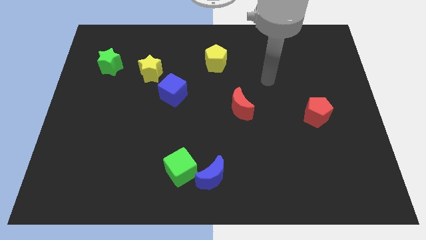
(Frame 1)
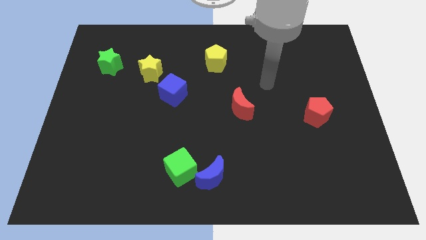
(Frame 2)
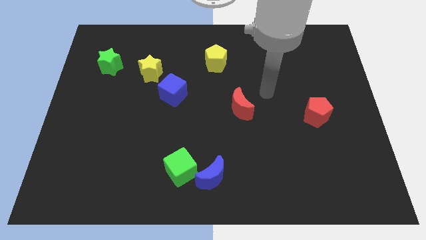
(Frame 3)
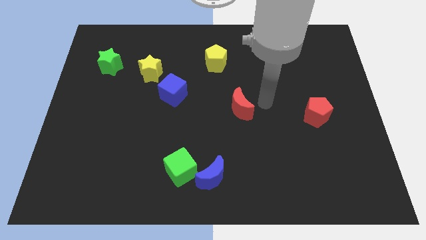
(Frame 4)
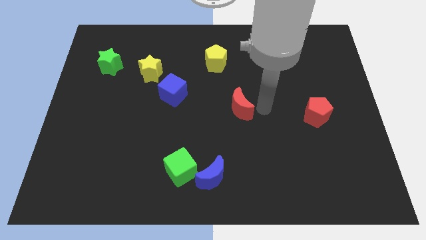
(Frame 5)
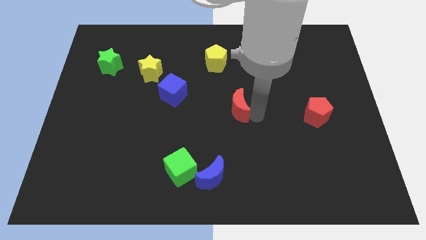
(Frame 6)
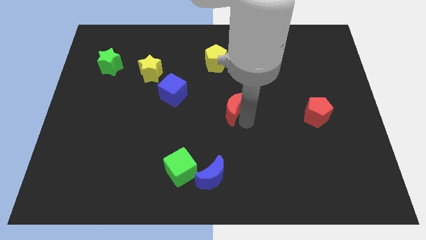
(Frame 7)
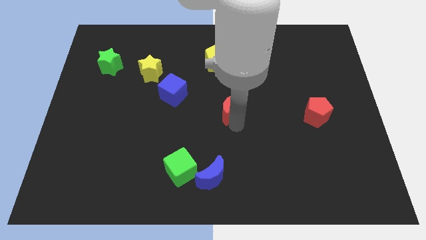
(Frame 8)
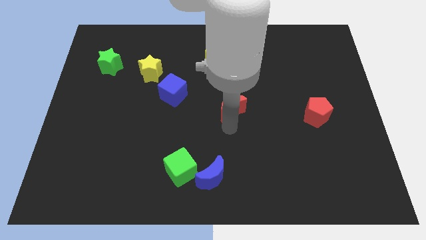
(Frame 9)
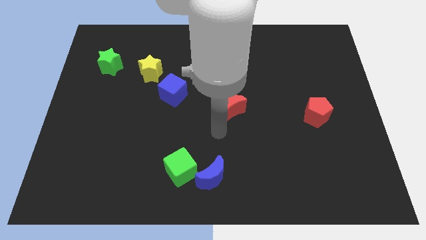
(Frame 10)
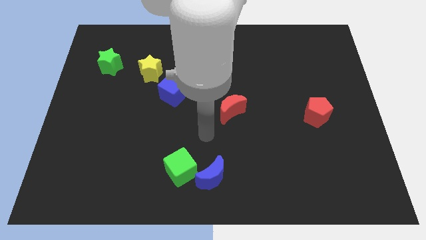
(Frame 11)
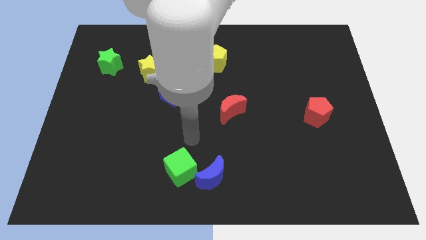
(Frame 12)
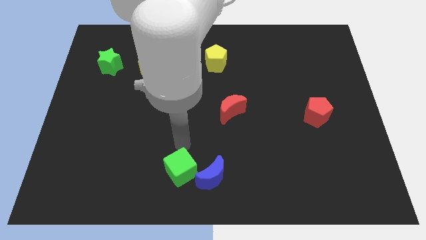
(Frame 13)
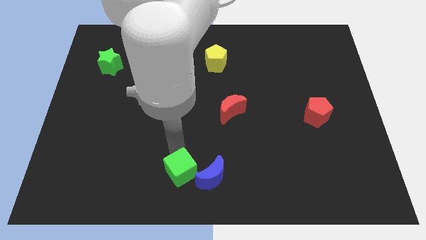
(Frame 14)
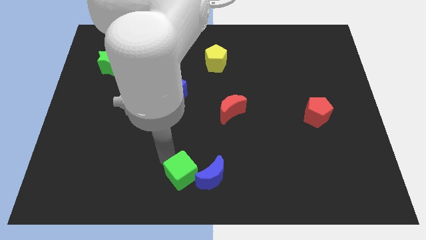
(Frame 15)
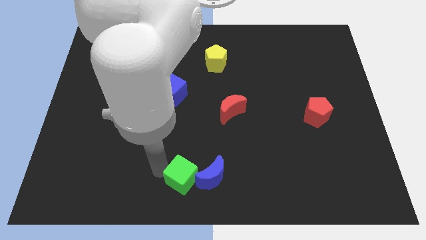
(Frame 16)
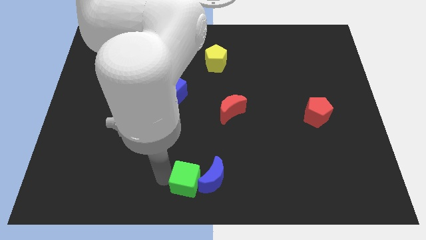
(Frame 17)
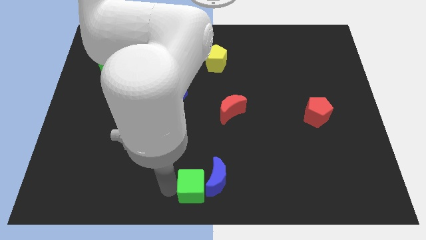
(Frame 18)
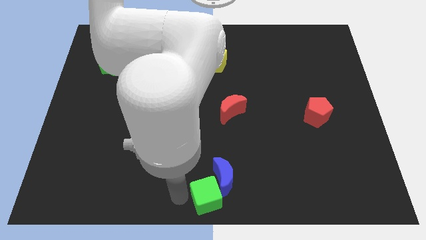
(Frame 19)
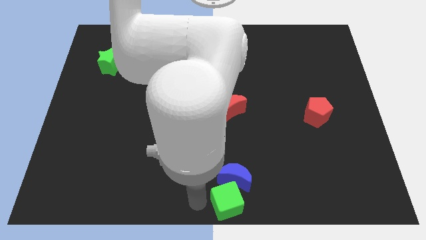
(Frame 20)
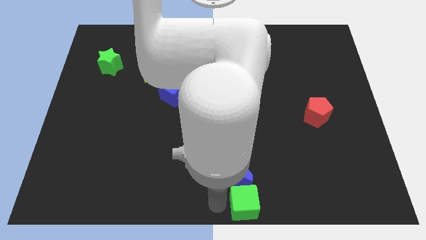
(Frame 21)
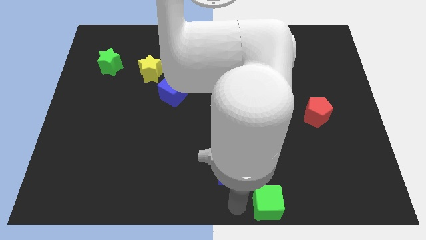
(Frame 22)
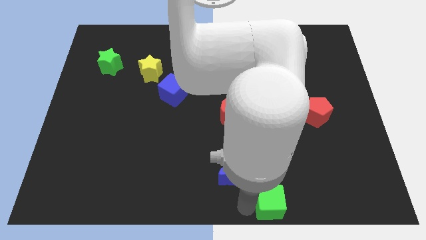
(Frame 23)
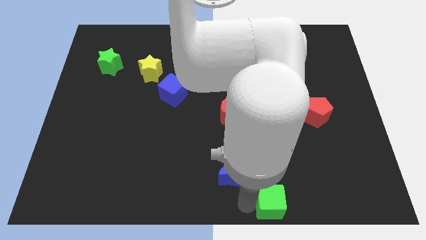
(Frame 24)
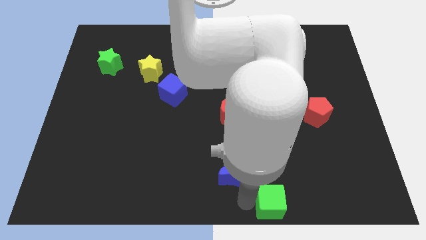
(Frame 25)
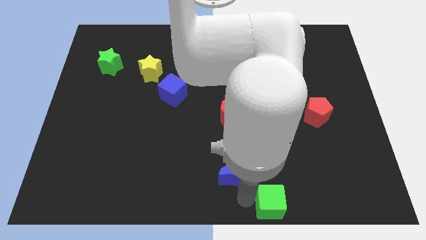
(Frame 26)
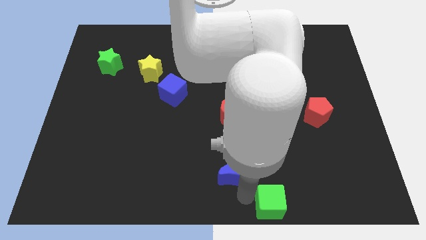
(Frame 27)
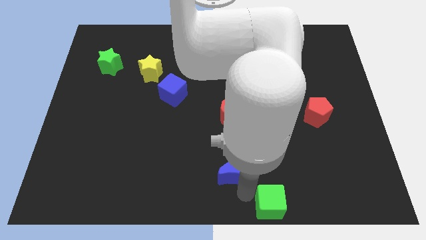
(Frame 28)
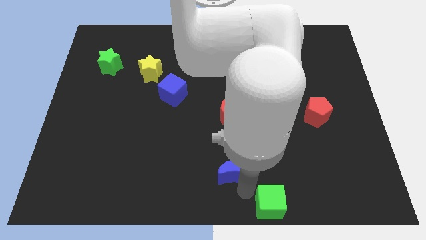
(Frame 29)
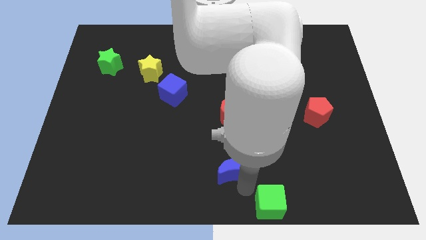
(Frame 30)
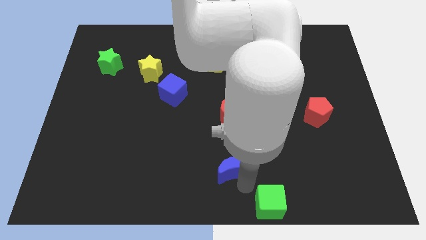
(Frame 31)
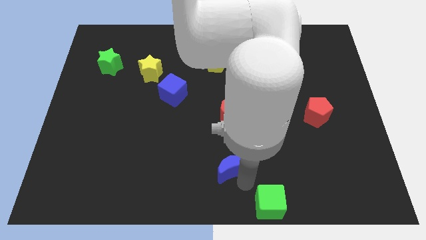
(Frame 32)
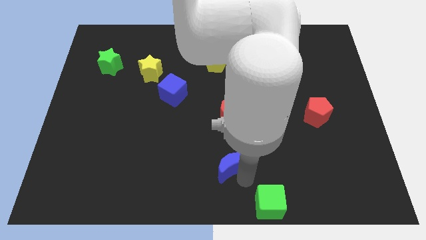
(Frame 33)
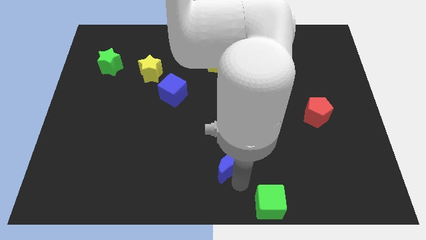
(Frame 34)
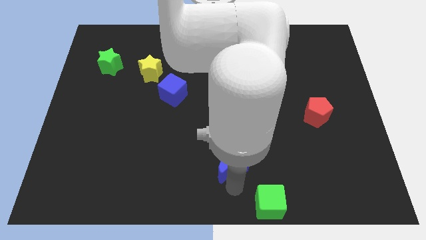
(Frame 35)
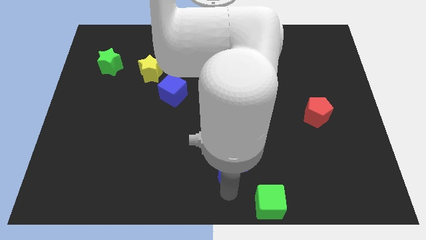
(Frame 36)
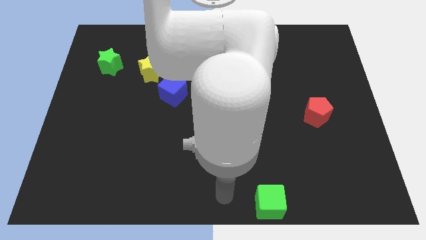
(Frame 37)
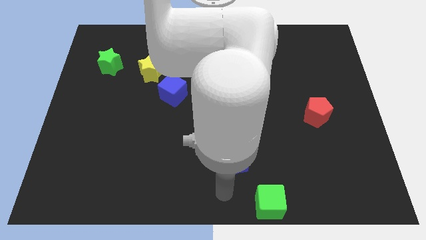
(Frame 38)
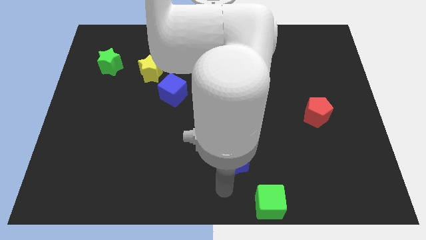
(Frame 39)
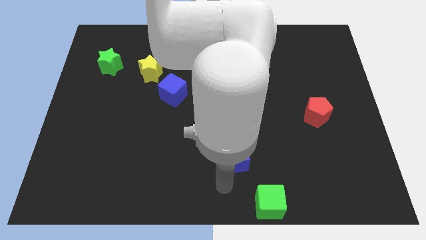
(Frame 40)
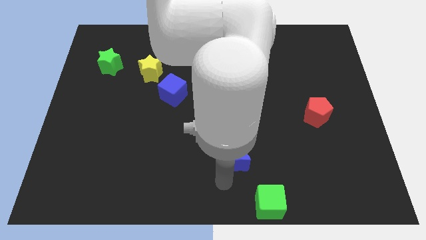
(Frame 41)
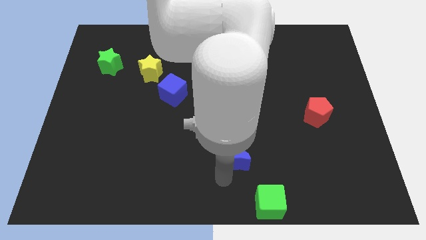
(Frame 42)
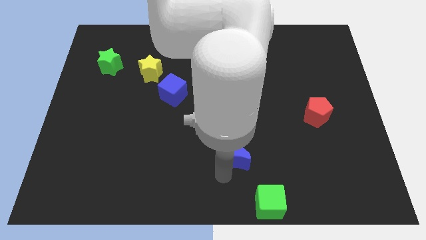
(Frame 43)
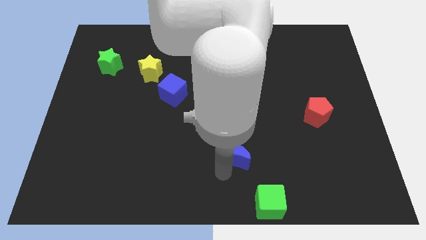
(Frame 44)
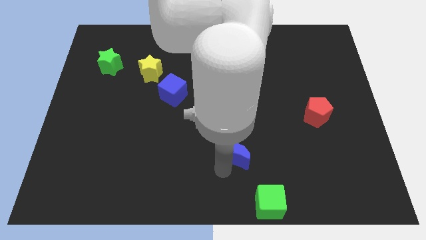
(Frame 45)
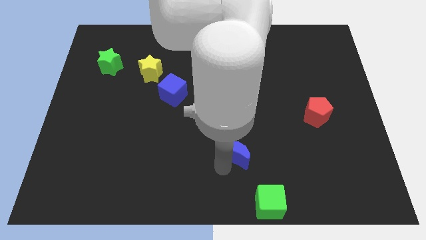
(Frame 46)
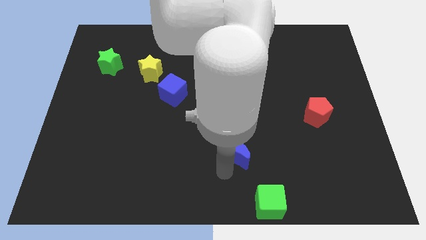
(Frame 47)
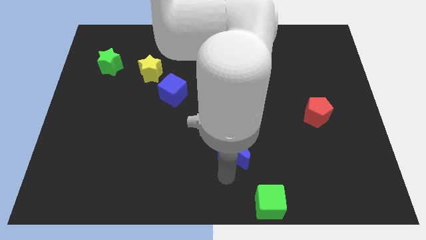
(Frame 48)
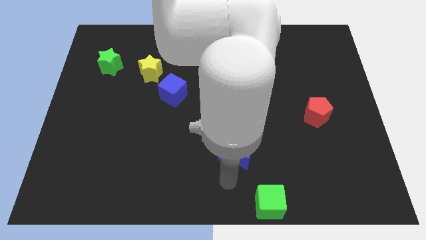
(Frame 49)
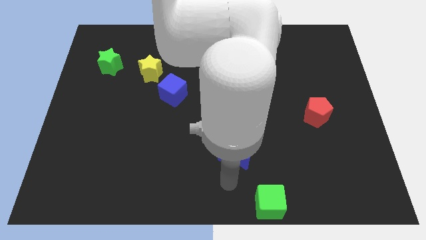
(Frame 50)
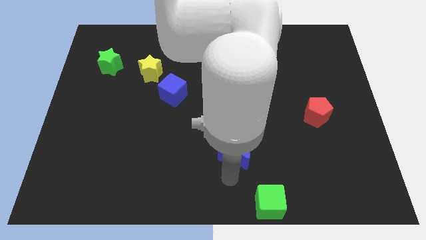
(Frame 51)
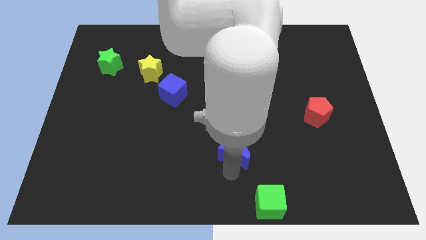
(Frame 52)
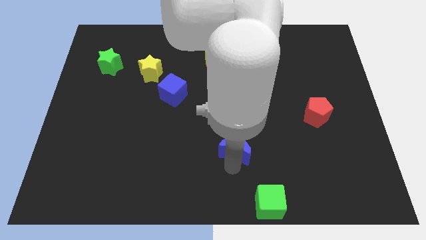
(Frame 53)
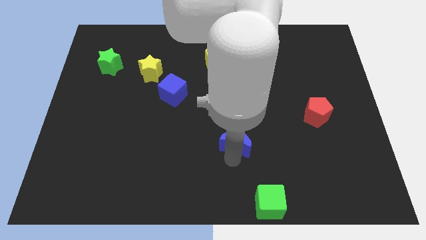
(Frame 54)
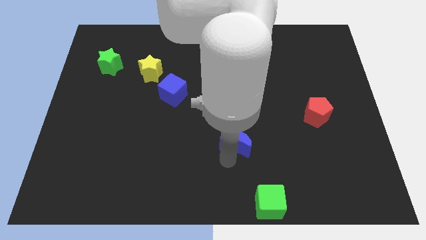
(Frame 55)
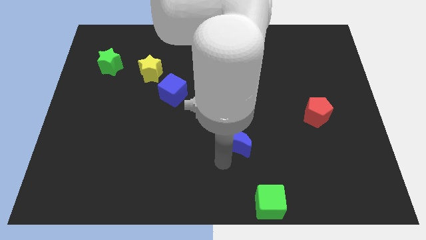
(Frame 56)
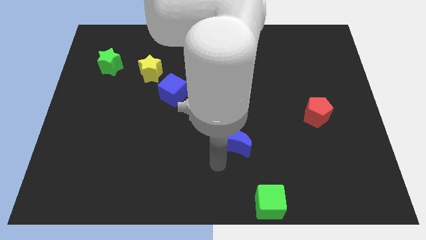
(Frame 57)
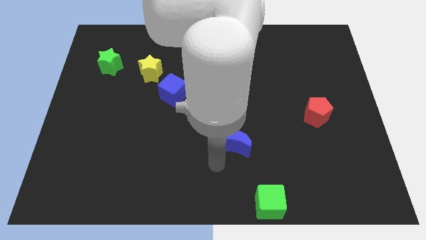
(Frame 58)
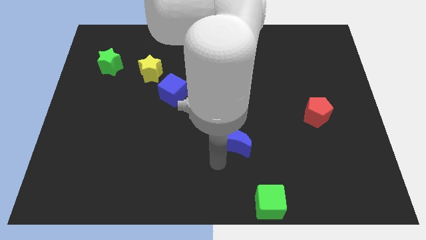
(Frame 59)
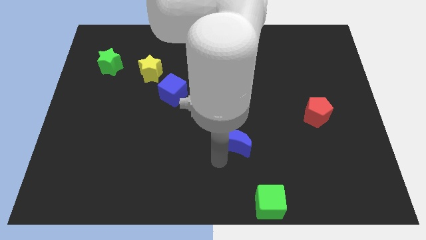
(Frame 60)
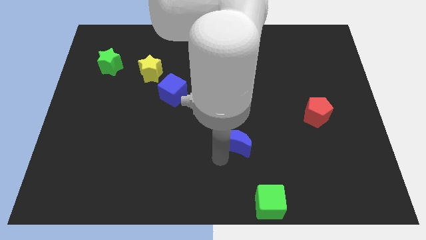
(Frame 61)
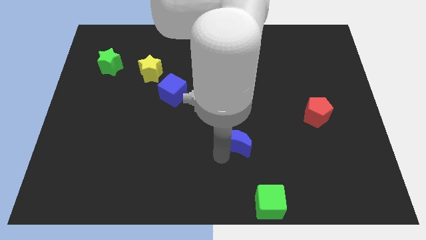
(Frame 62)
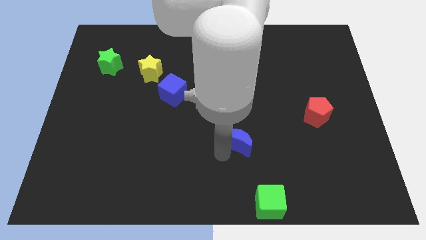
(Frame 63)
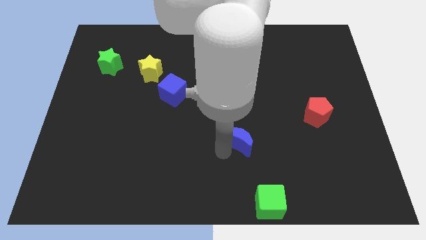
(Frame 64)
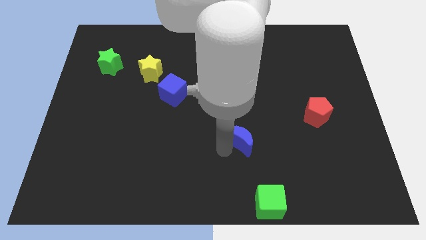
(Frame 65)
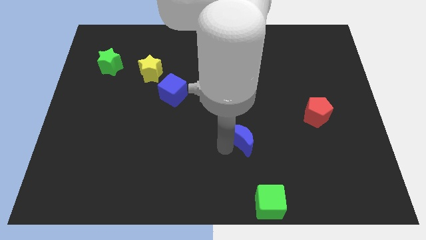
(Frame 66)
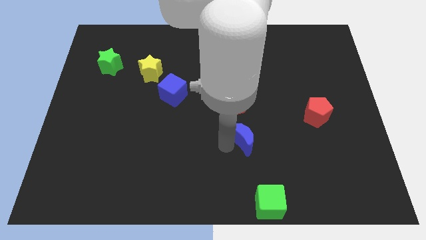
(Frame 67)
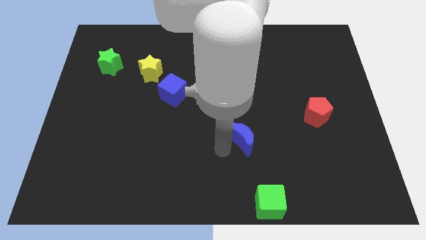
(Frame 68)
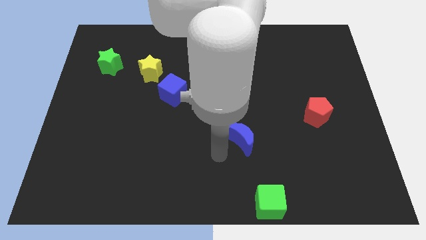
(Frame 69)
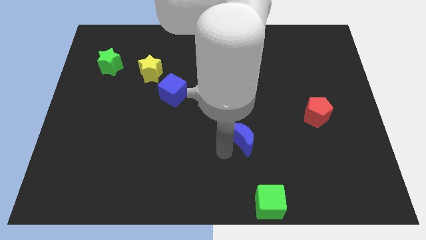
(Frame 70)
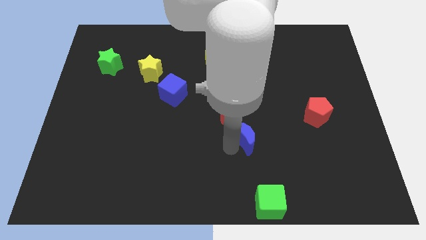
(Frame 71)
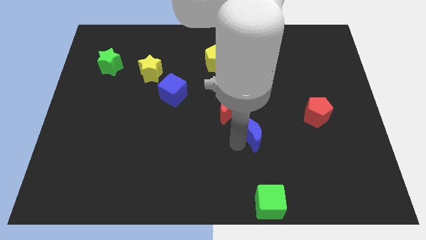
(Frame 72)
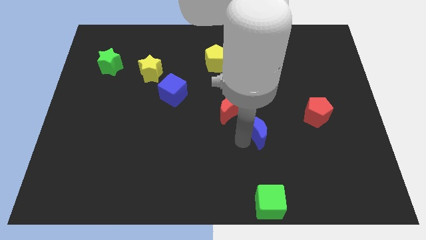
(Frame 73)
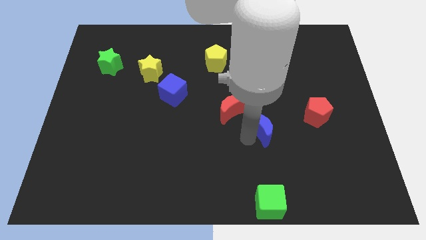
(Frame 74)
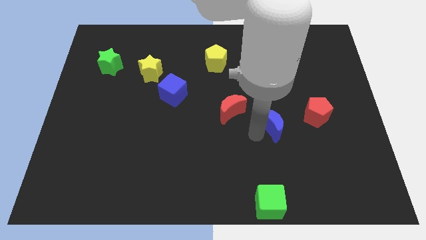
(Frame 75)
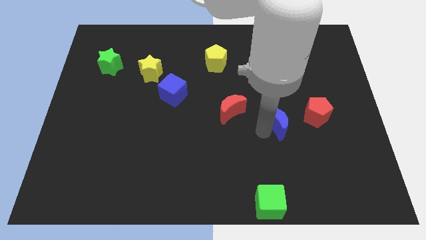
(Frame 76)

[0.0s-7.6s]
slide the blue moon upwards and then right

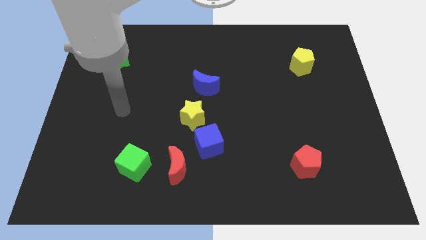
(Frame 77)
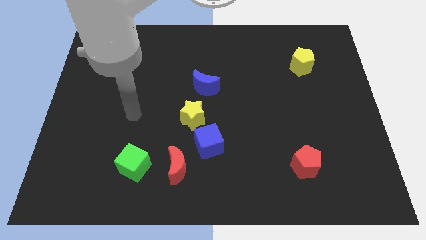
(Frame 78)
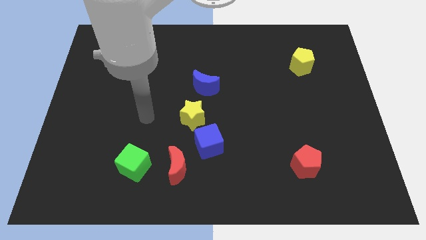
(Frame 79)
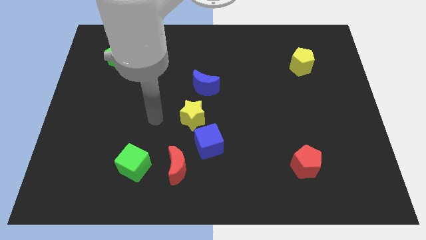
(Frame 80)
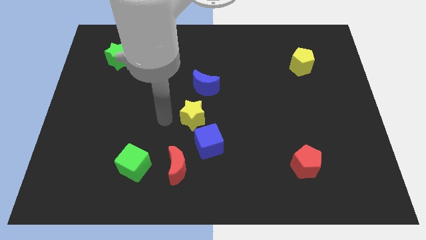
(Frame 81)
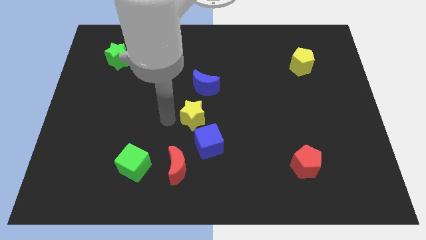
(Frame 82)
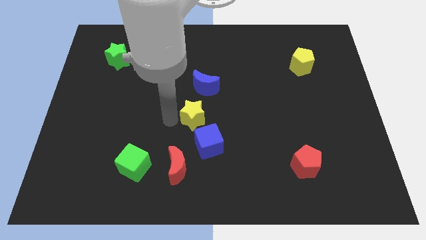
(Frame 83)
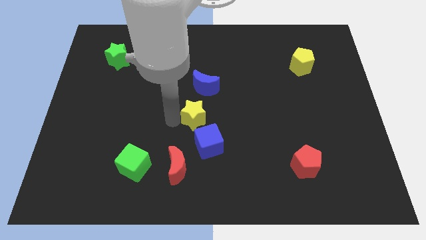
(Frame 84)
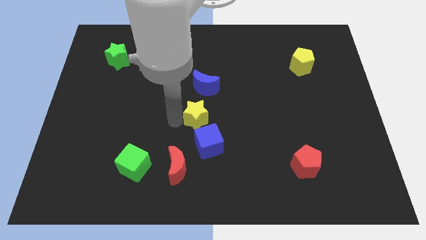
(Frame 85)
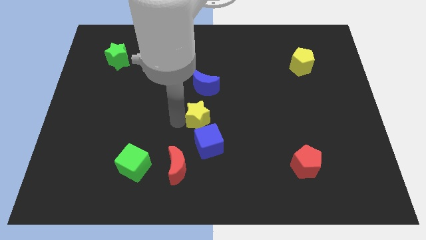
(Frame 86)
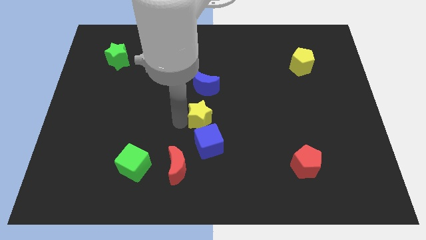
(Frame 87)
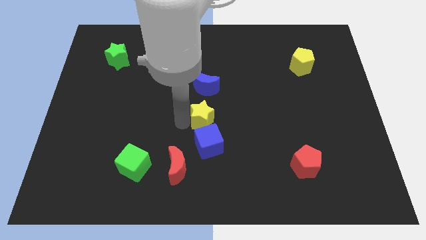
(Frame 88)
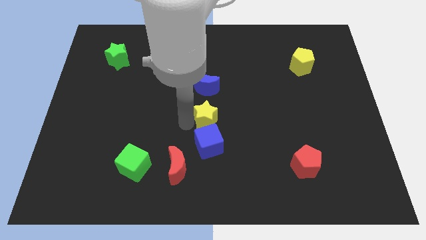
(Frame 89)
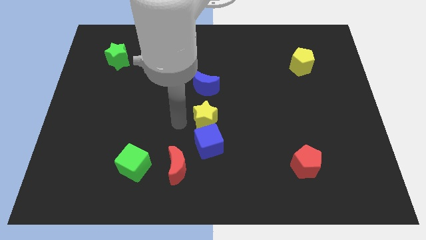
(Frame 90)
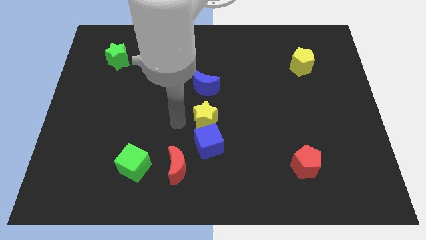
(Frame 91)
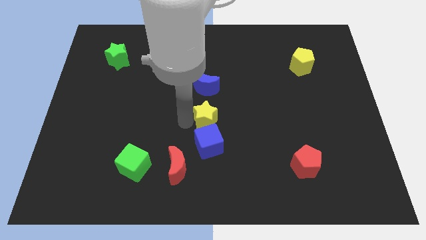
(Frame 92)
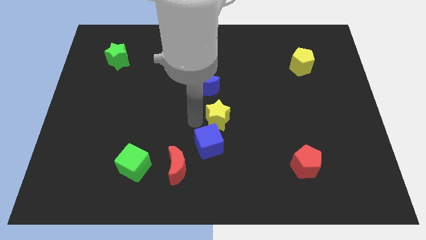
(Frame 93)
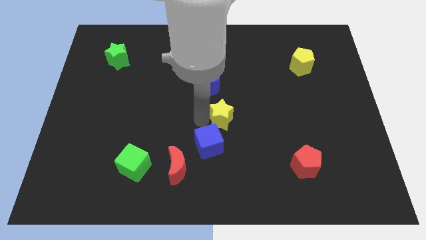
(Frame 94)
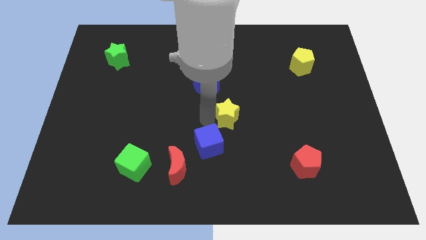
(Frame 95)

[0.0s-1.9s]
slightly push the yellow star right
